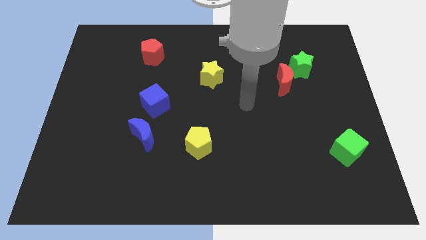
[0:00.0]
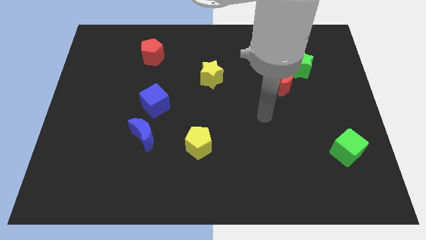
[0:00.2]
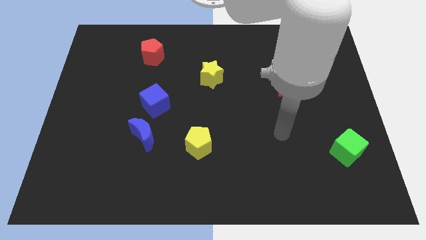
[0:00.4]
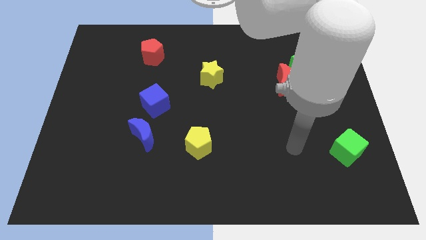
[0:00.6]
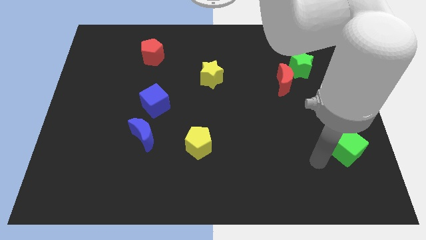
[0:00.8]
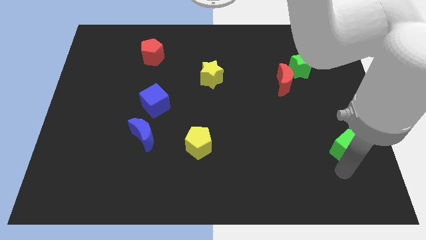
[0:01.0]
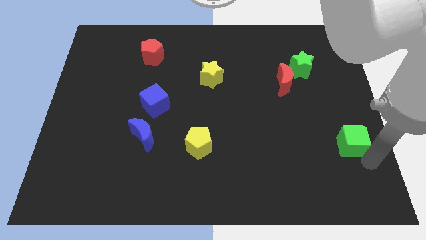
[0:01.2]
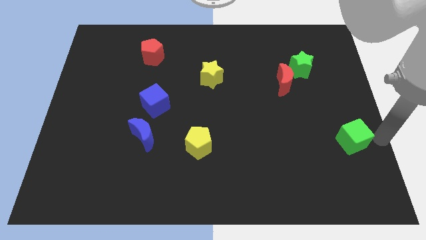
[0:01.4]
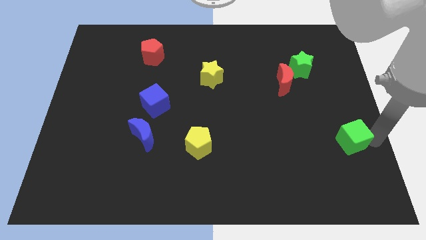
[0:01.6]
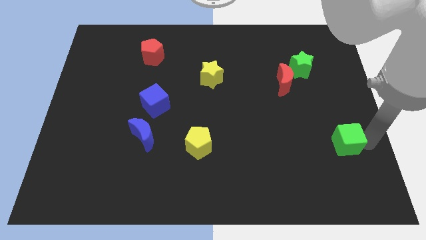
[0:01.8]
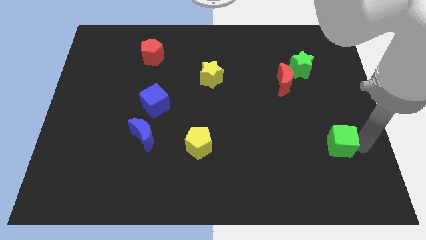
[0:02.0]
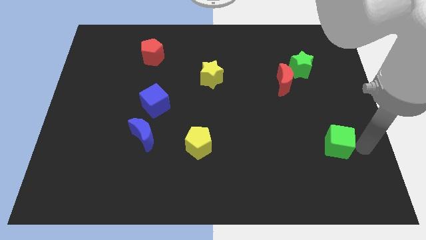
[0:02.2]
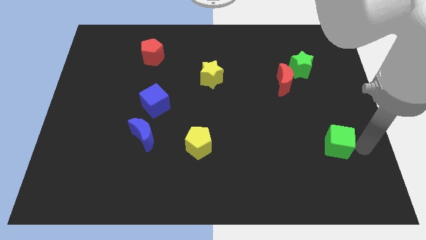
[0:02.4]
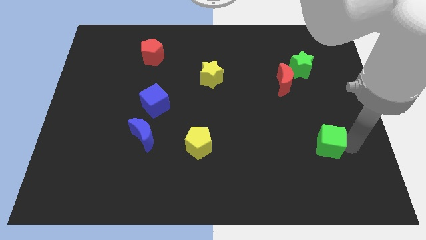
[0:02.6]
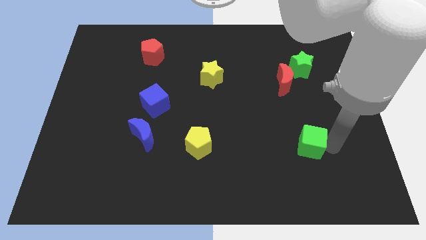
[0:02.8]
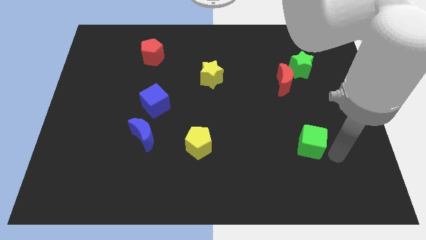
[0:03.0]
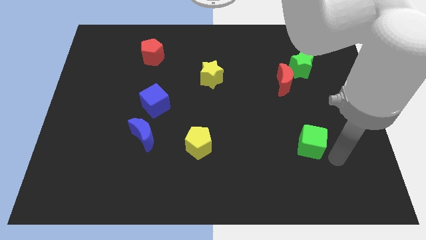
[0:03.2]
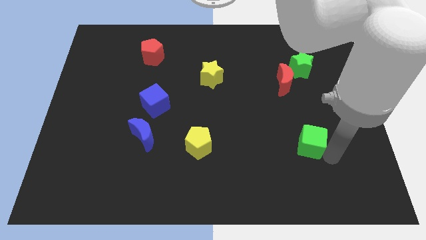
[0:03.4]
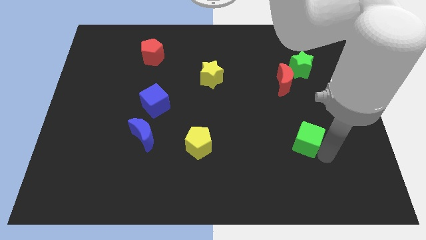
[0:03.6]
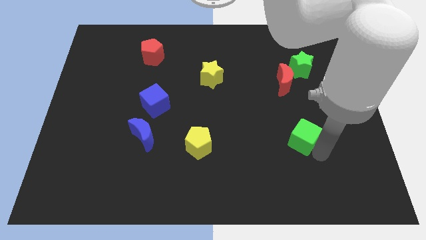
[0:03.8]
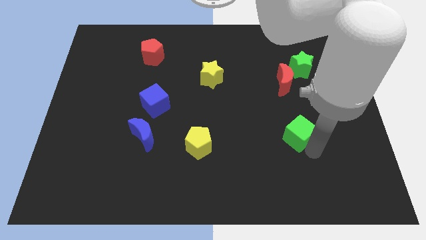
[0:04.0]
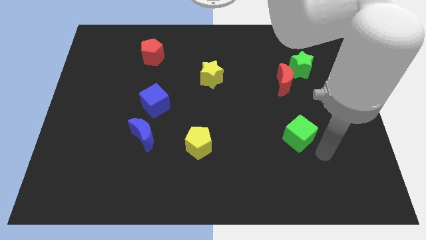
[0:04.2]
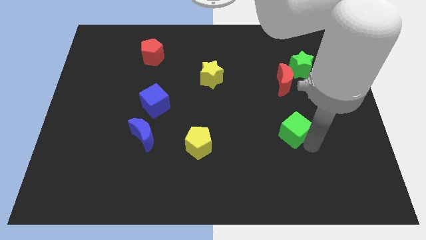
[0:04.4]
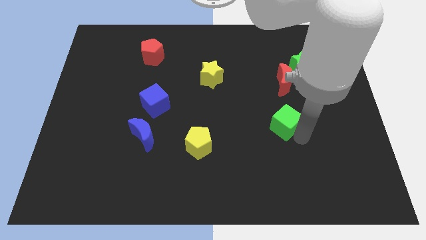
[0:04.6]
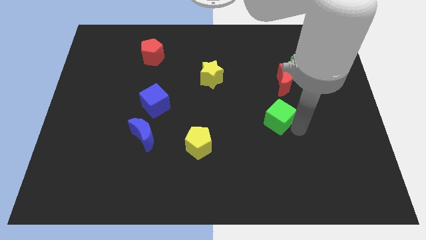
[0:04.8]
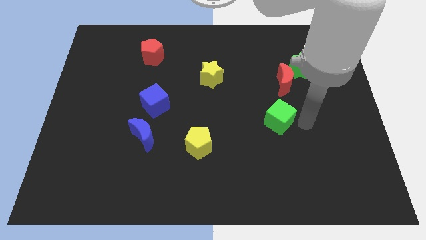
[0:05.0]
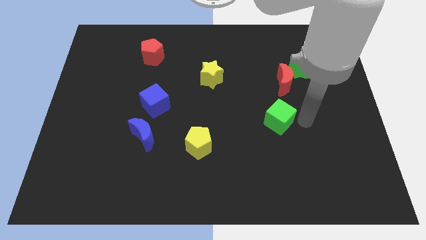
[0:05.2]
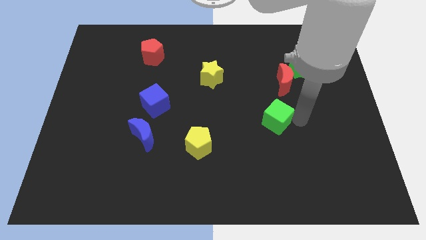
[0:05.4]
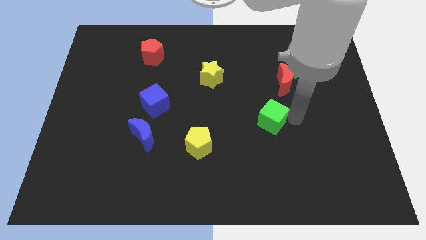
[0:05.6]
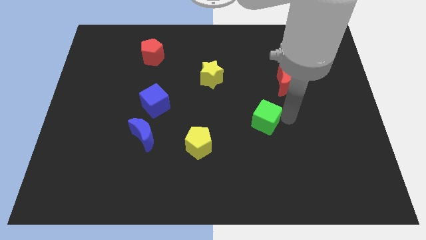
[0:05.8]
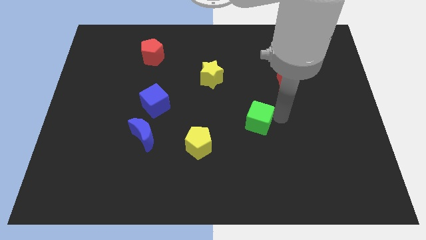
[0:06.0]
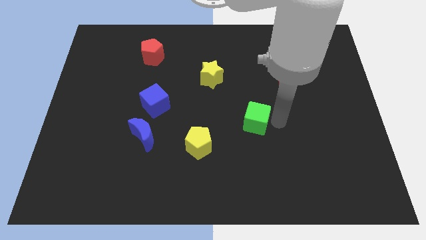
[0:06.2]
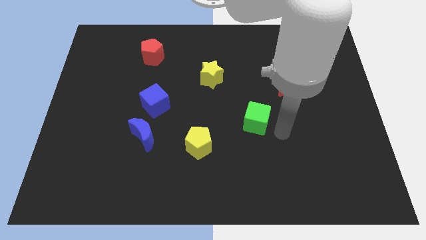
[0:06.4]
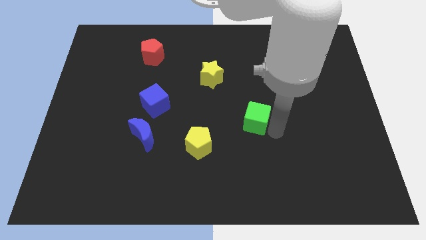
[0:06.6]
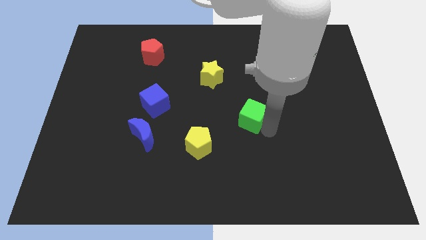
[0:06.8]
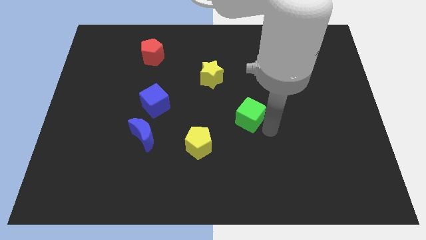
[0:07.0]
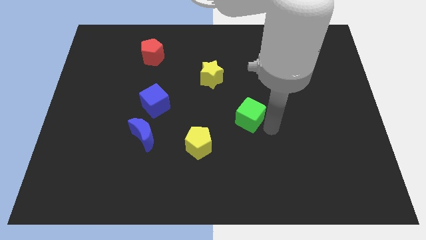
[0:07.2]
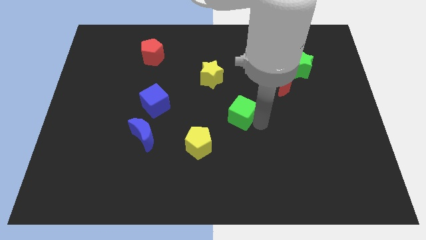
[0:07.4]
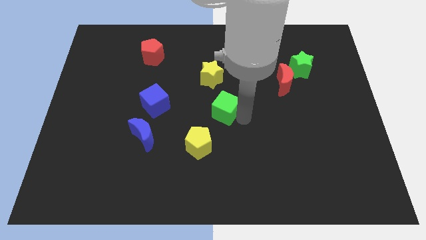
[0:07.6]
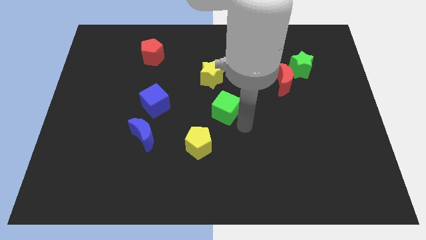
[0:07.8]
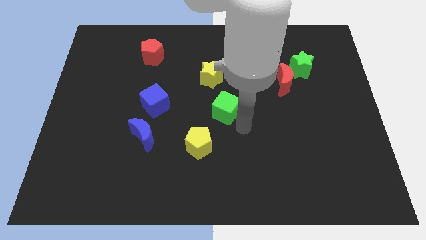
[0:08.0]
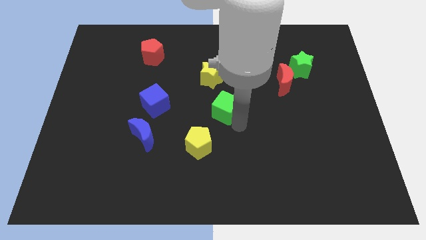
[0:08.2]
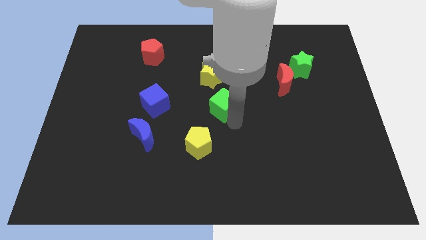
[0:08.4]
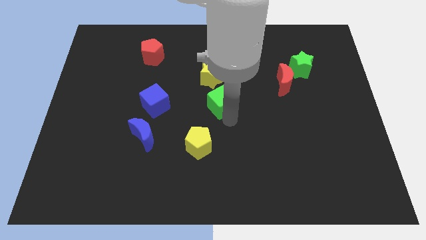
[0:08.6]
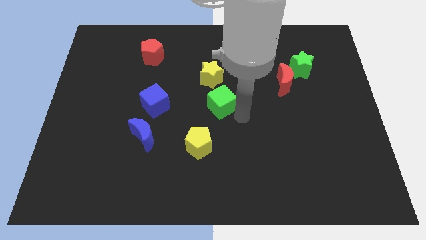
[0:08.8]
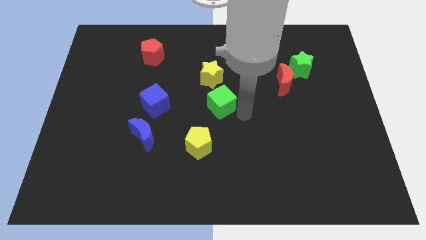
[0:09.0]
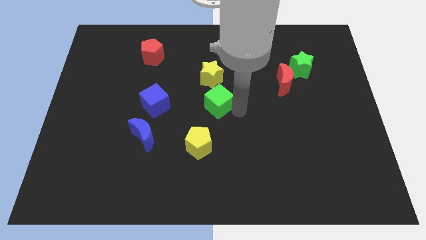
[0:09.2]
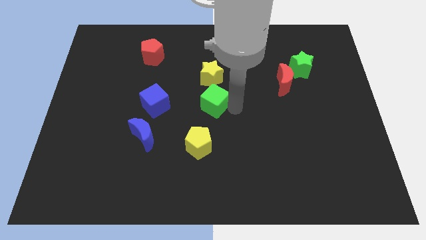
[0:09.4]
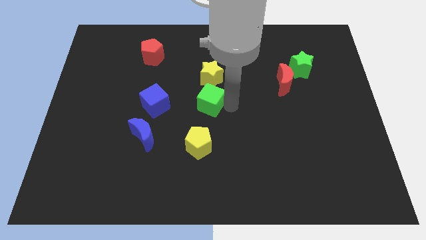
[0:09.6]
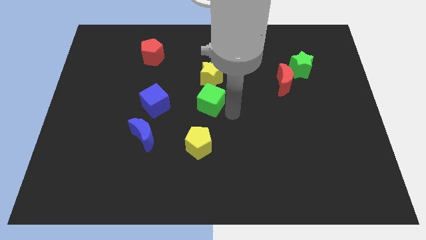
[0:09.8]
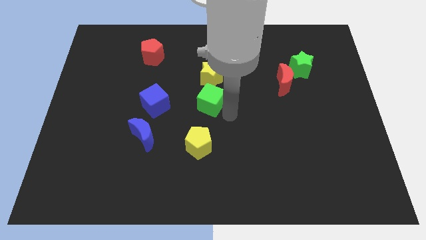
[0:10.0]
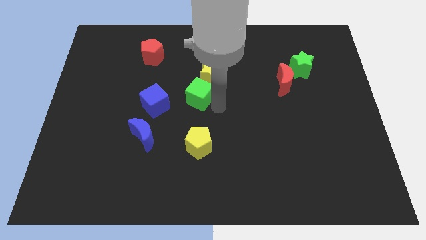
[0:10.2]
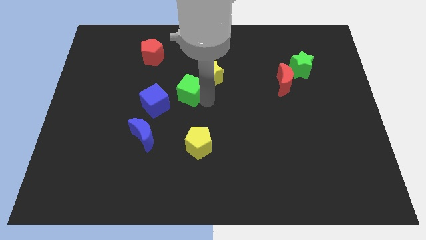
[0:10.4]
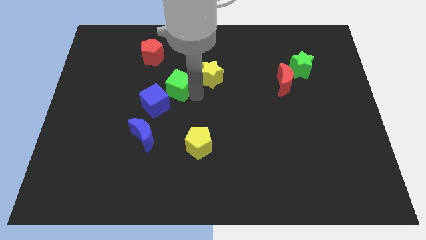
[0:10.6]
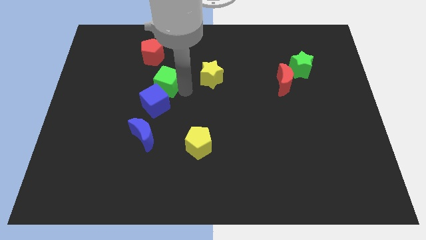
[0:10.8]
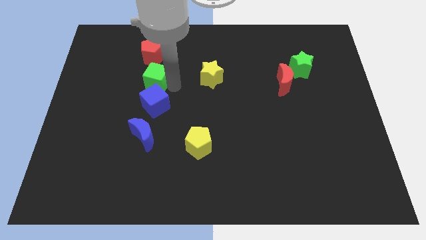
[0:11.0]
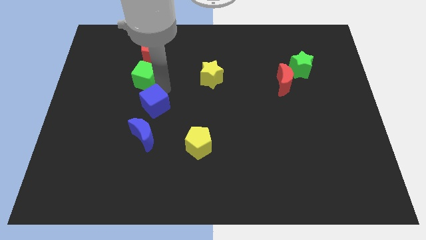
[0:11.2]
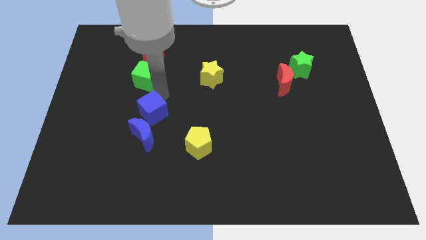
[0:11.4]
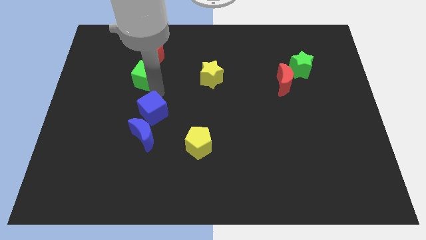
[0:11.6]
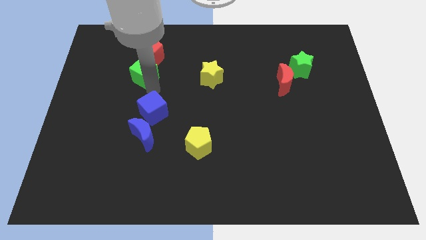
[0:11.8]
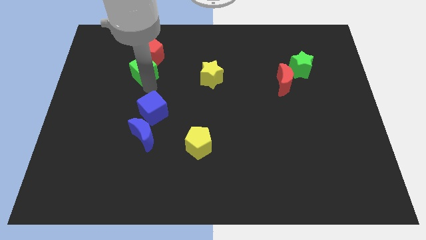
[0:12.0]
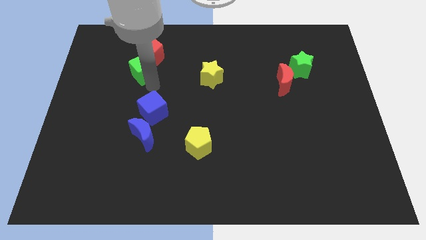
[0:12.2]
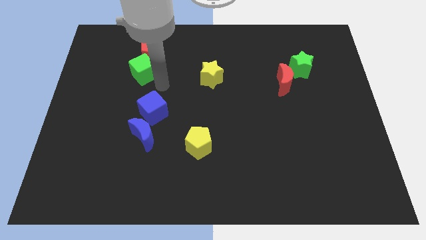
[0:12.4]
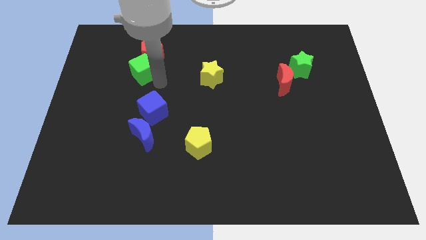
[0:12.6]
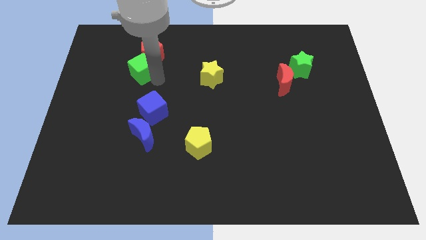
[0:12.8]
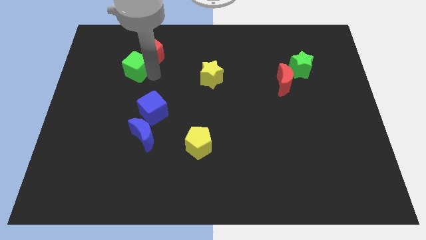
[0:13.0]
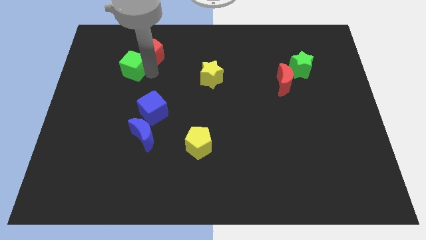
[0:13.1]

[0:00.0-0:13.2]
move the green cube to the left of the red pentagon
